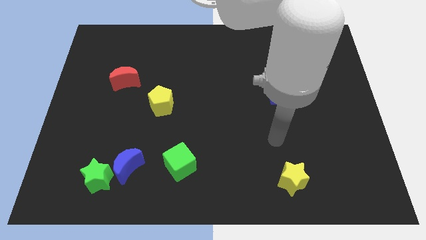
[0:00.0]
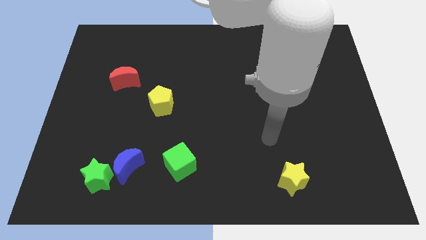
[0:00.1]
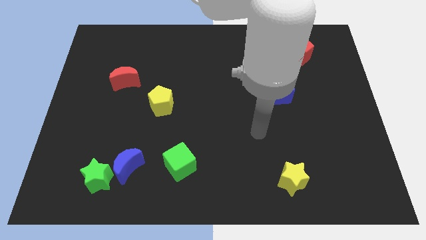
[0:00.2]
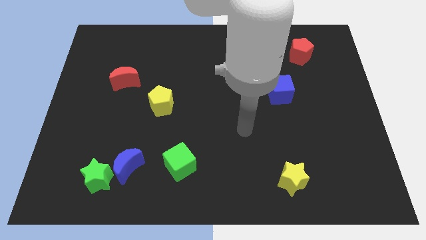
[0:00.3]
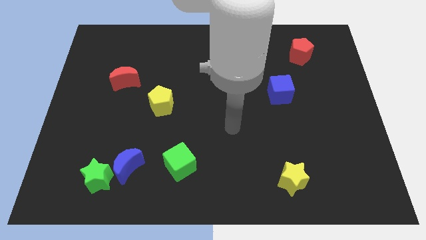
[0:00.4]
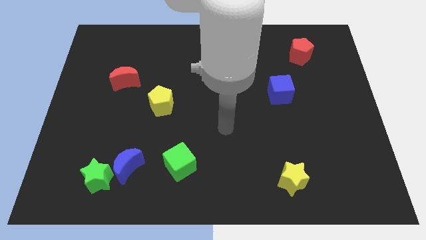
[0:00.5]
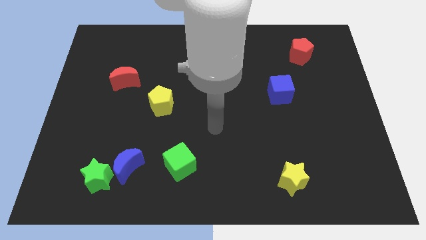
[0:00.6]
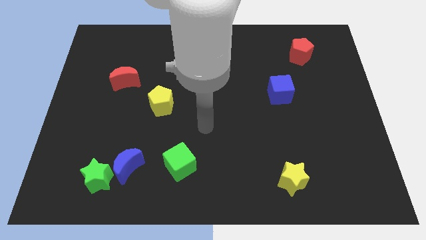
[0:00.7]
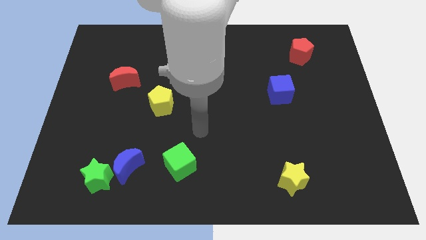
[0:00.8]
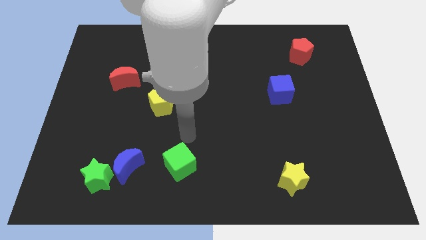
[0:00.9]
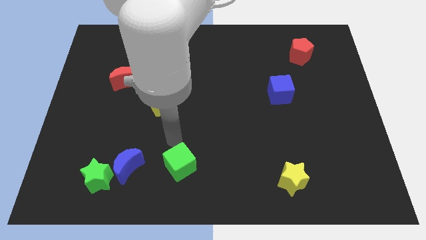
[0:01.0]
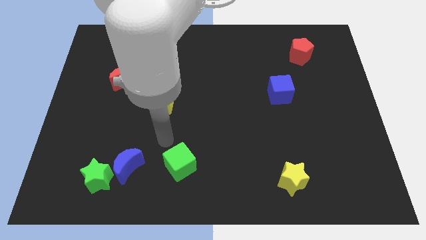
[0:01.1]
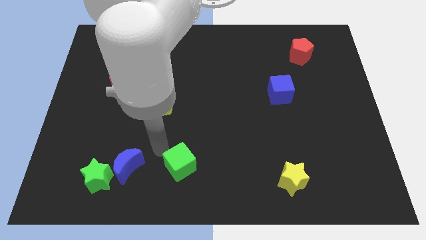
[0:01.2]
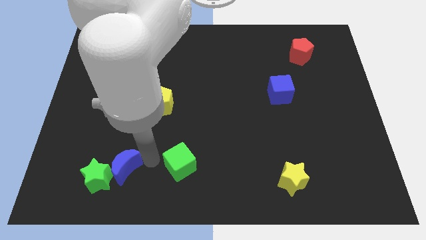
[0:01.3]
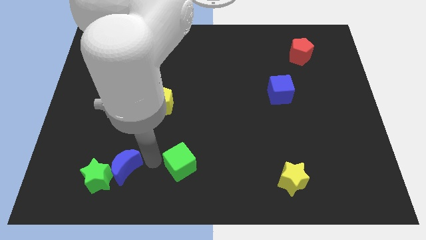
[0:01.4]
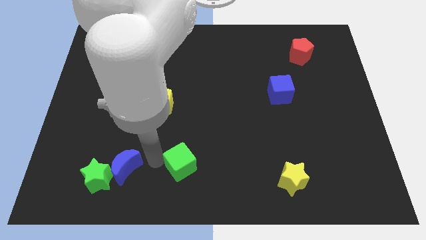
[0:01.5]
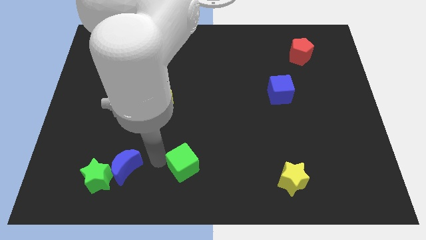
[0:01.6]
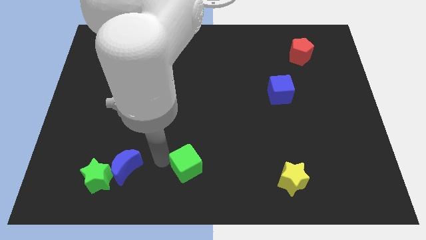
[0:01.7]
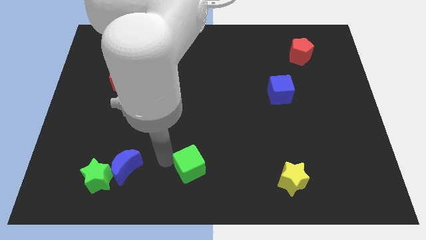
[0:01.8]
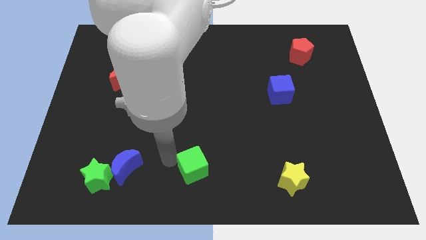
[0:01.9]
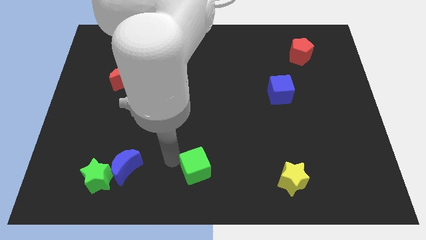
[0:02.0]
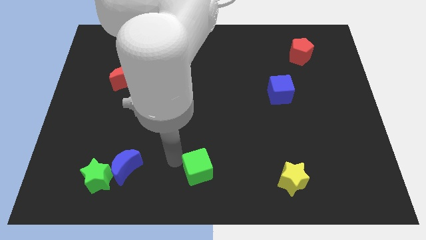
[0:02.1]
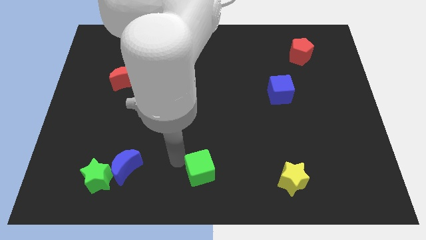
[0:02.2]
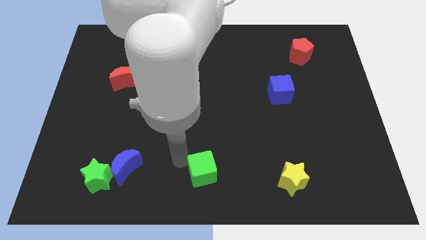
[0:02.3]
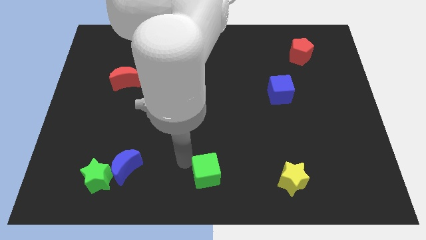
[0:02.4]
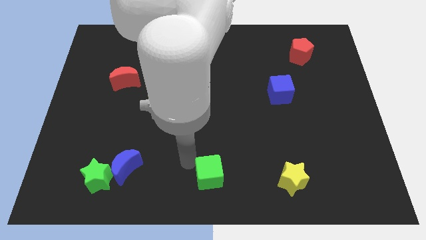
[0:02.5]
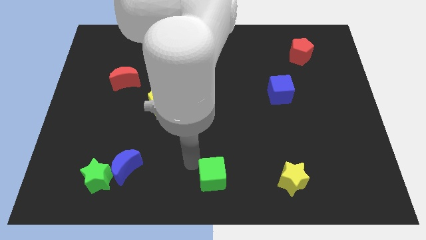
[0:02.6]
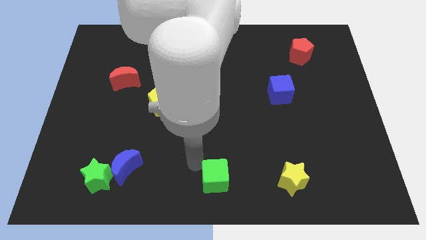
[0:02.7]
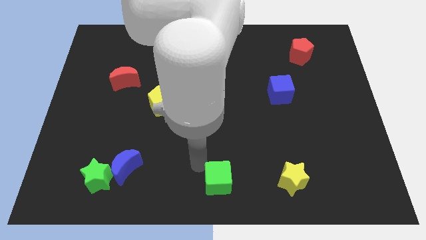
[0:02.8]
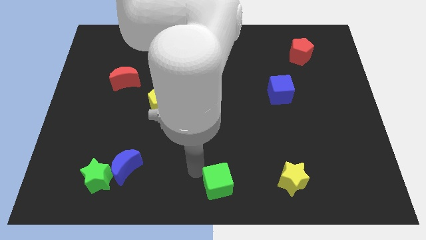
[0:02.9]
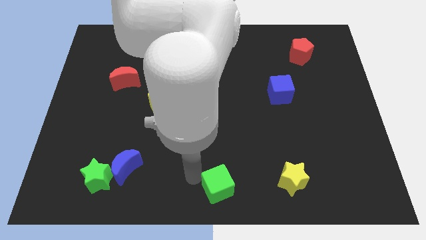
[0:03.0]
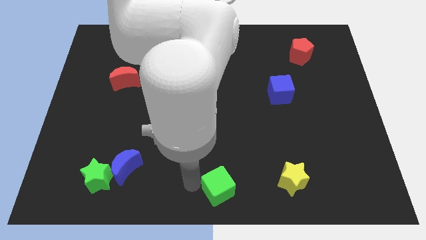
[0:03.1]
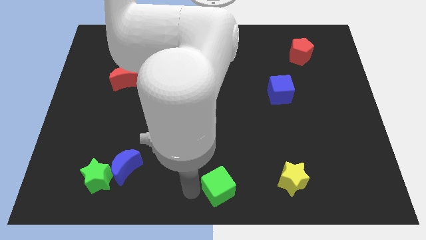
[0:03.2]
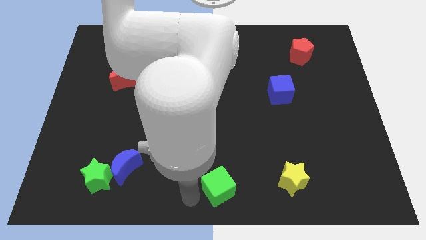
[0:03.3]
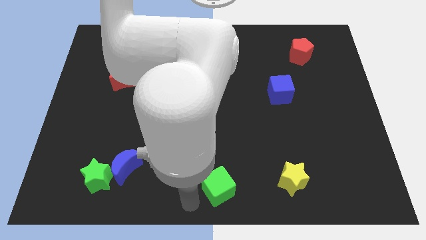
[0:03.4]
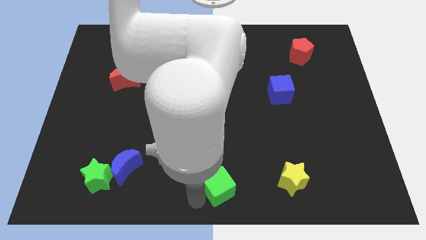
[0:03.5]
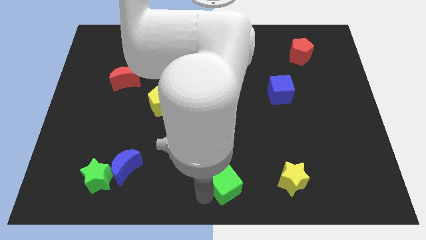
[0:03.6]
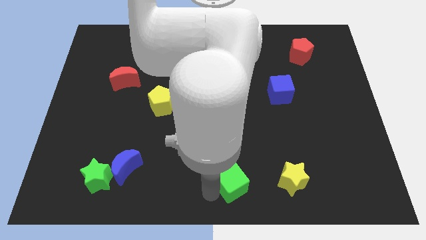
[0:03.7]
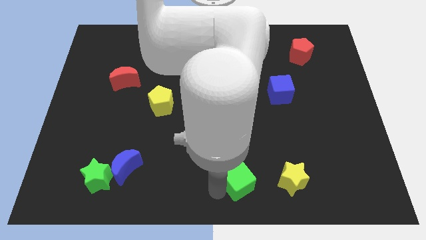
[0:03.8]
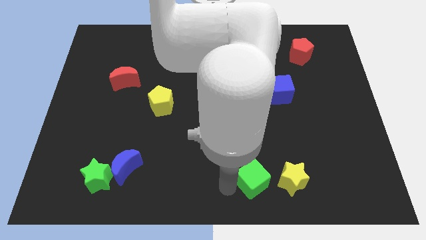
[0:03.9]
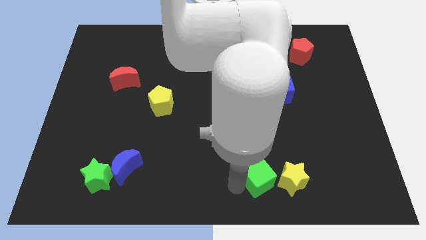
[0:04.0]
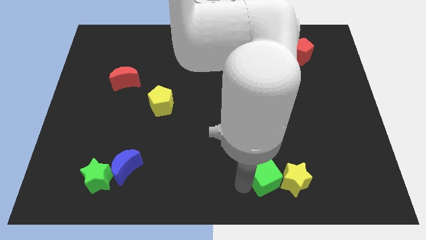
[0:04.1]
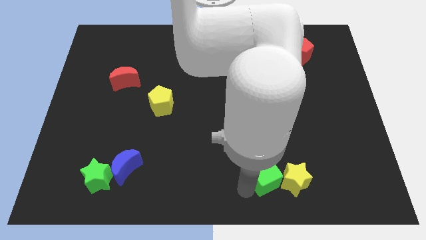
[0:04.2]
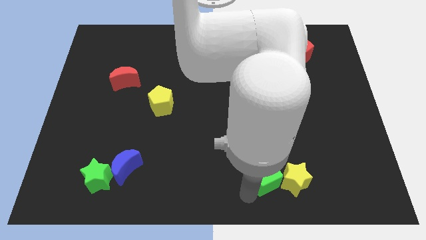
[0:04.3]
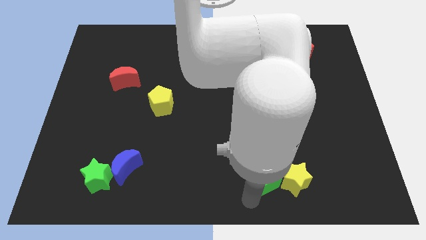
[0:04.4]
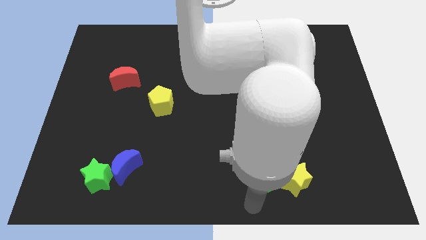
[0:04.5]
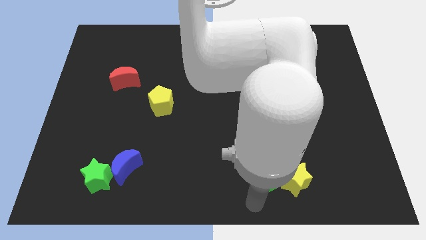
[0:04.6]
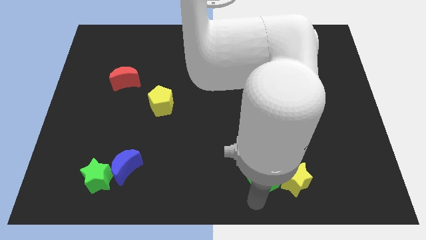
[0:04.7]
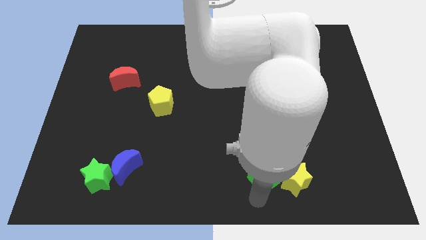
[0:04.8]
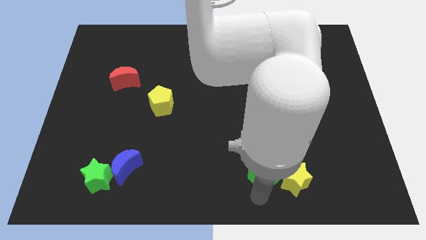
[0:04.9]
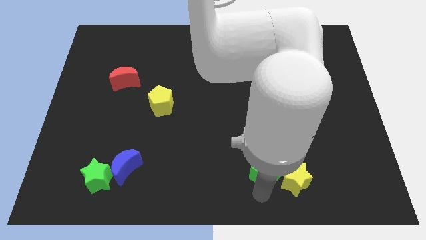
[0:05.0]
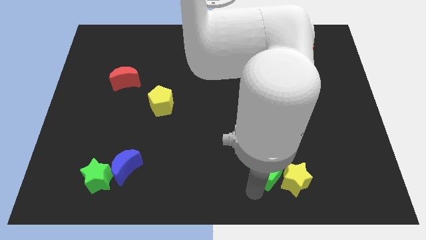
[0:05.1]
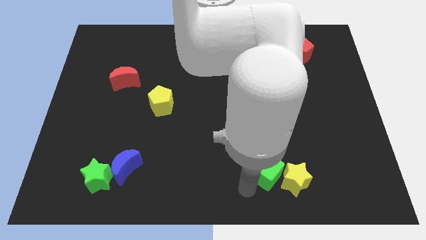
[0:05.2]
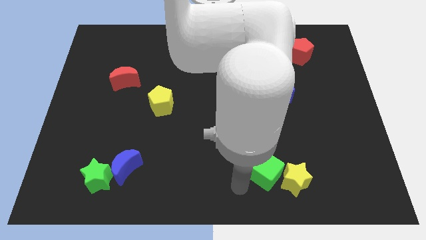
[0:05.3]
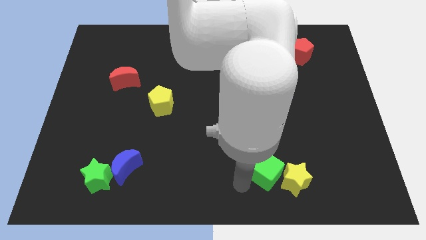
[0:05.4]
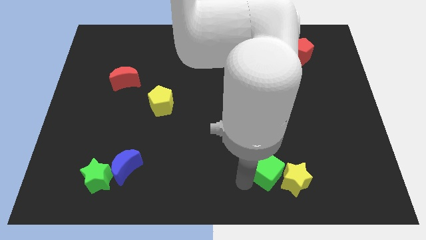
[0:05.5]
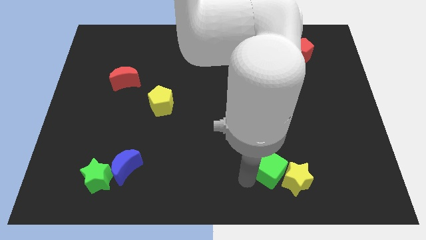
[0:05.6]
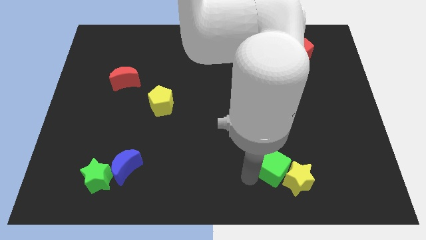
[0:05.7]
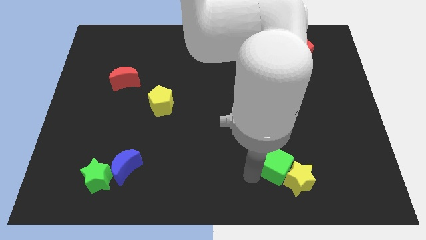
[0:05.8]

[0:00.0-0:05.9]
slide the green cube to the right

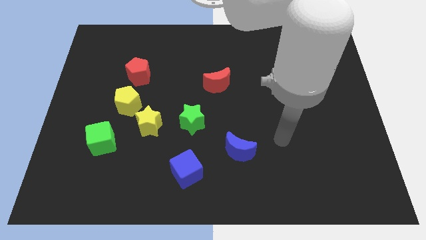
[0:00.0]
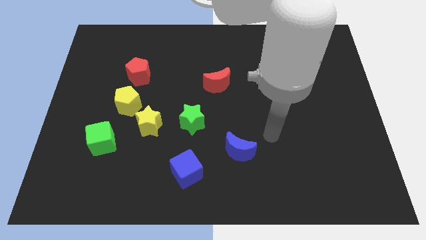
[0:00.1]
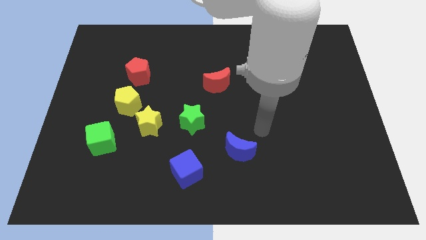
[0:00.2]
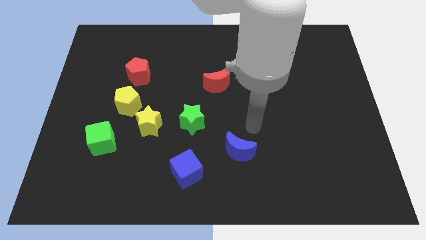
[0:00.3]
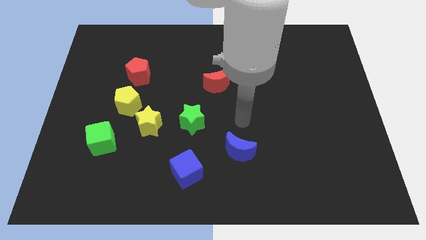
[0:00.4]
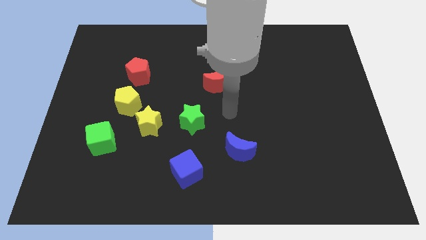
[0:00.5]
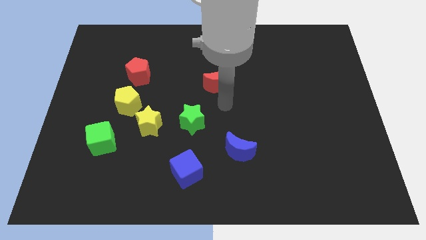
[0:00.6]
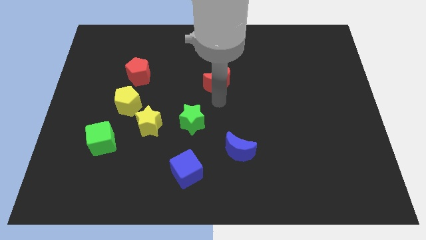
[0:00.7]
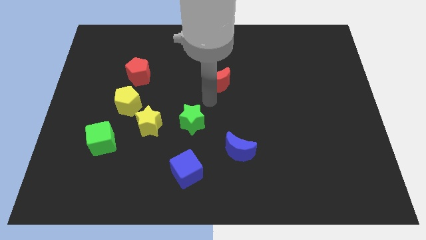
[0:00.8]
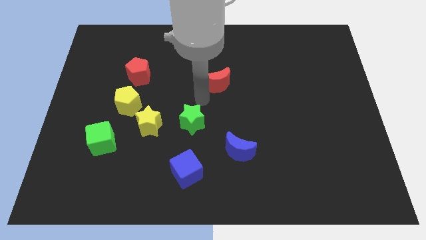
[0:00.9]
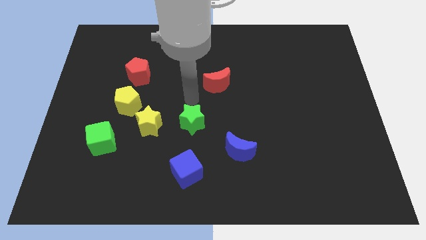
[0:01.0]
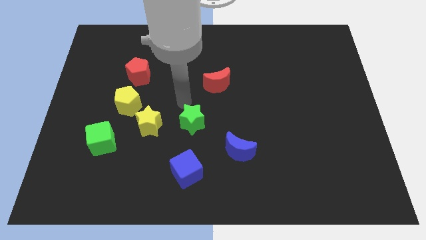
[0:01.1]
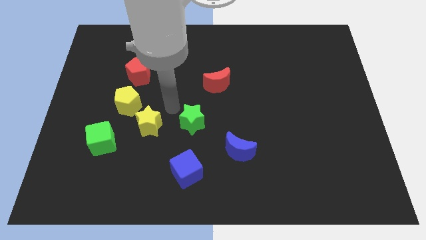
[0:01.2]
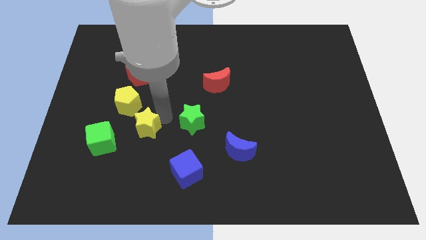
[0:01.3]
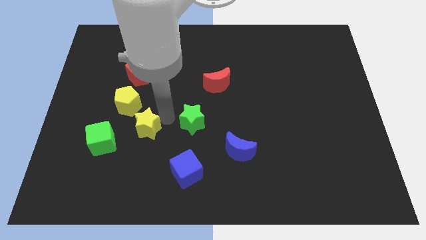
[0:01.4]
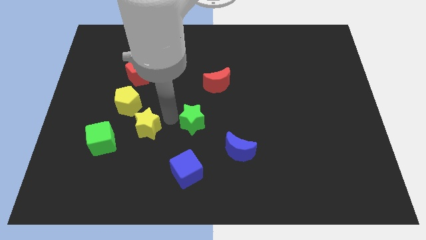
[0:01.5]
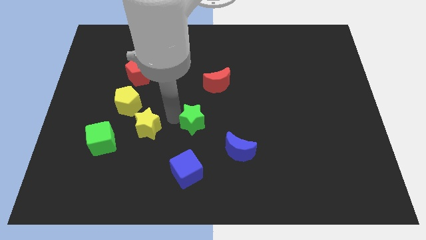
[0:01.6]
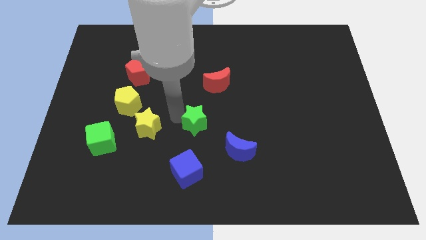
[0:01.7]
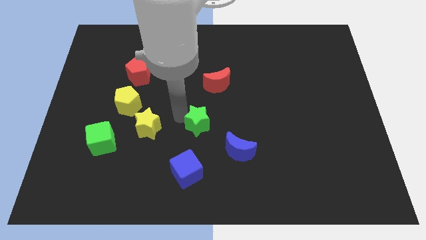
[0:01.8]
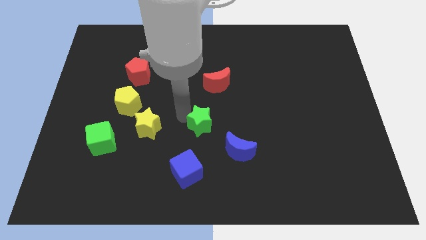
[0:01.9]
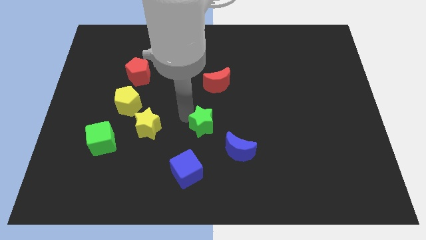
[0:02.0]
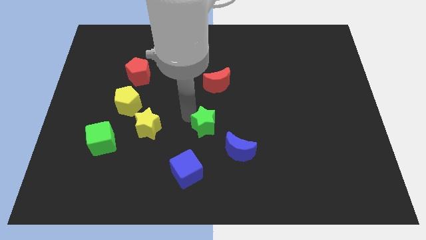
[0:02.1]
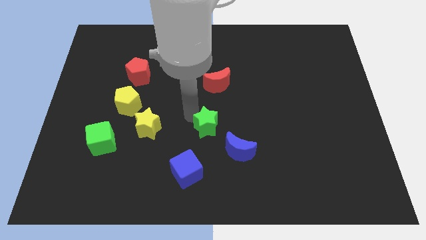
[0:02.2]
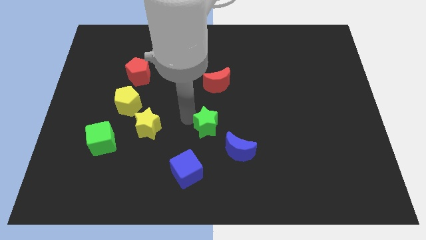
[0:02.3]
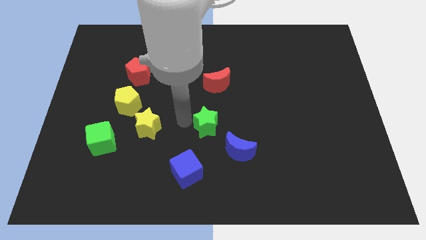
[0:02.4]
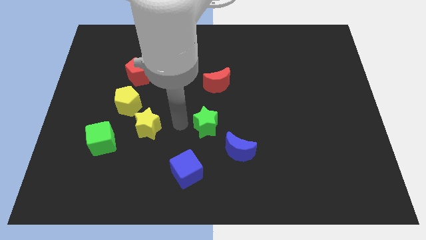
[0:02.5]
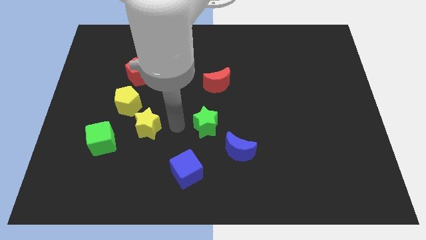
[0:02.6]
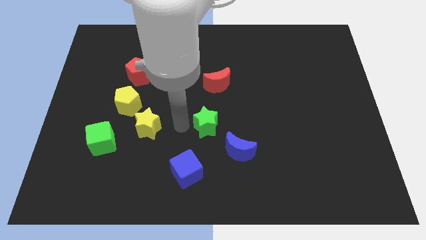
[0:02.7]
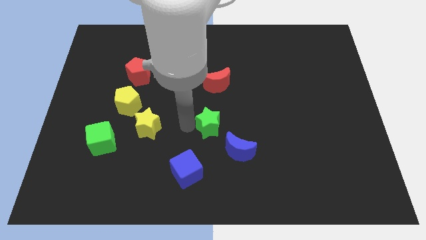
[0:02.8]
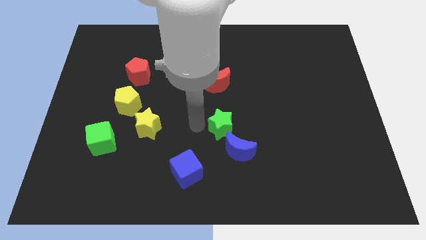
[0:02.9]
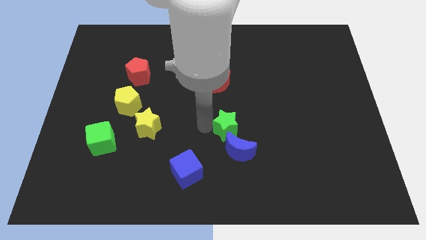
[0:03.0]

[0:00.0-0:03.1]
slide the green star right a bit
